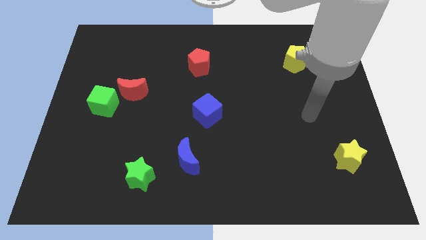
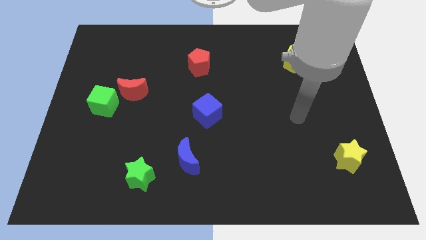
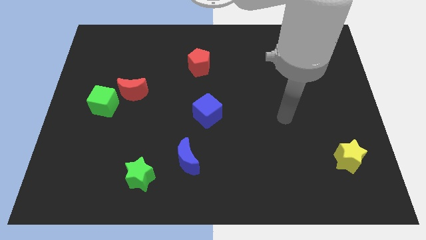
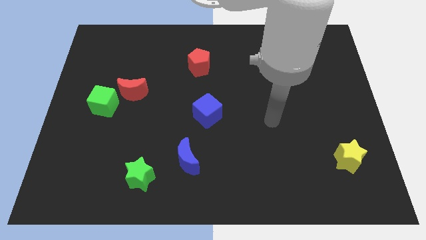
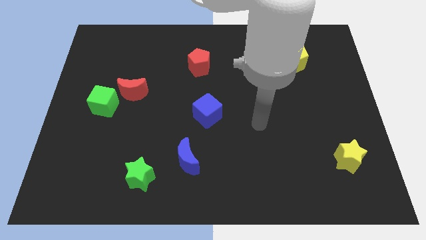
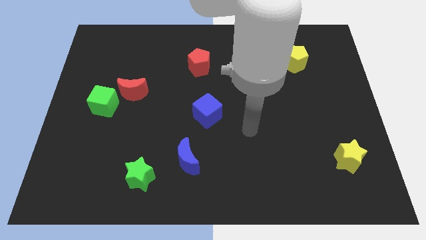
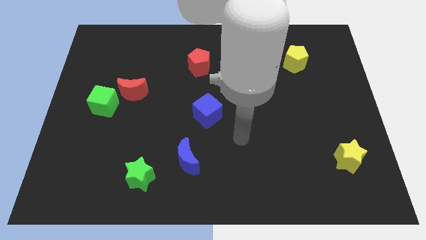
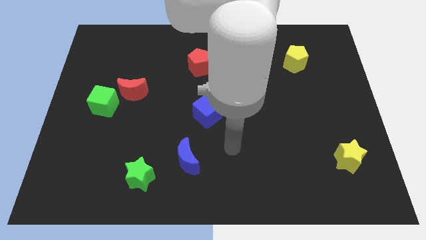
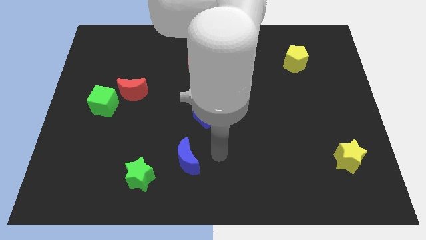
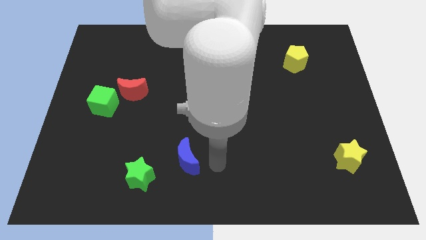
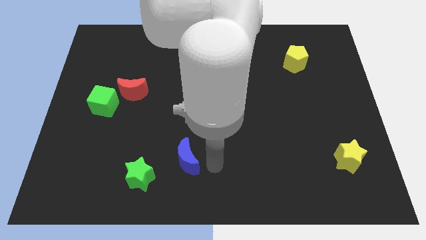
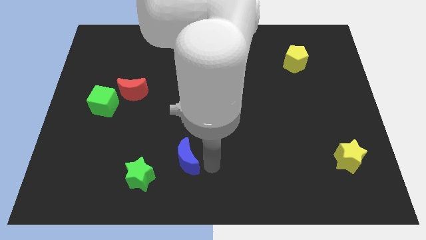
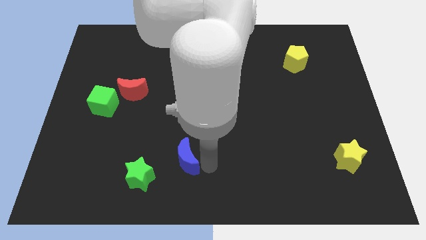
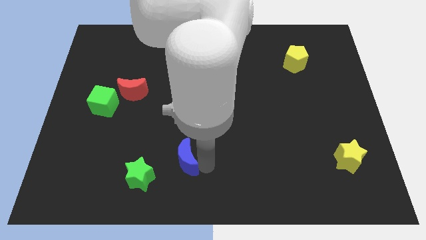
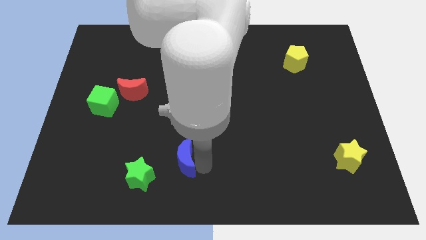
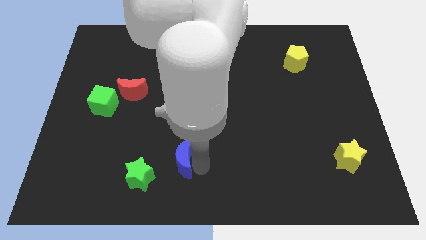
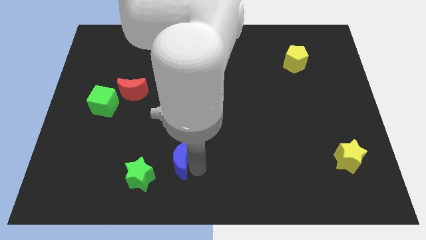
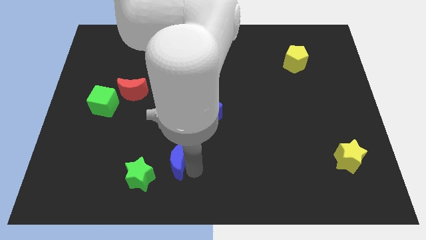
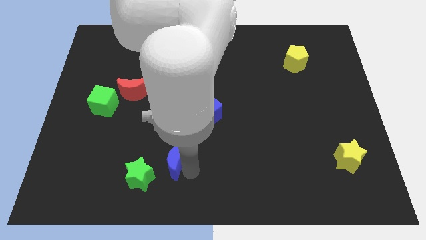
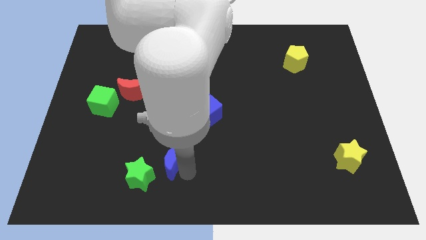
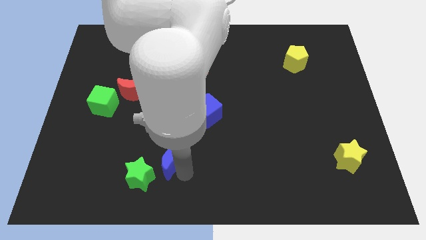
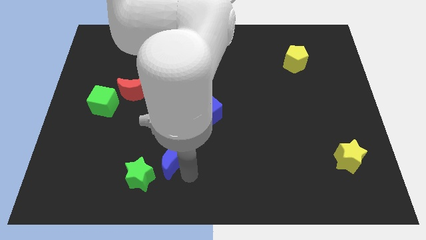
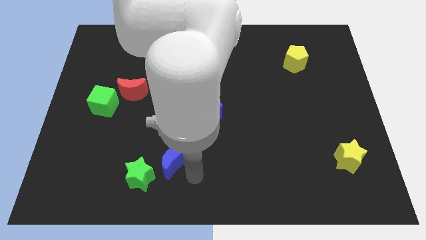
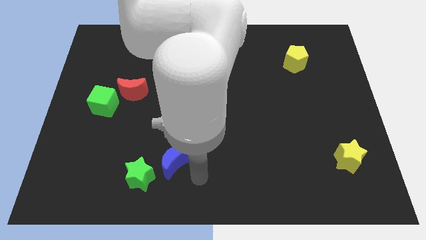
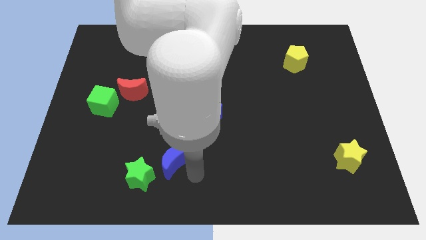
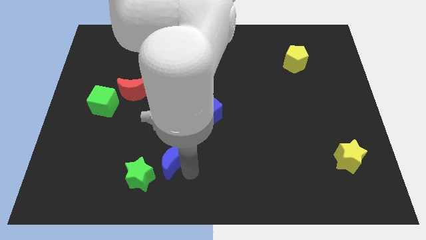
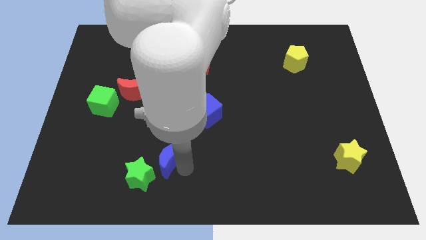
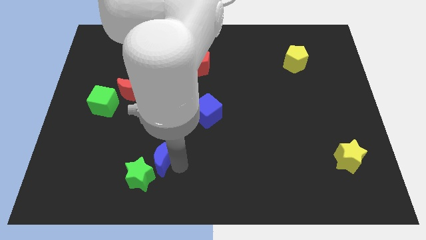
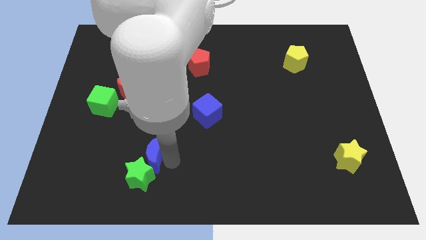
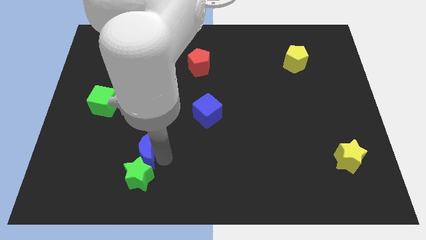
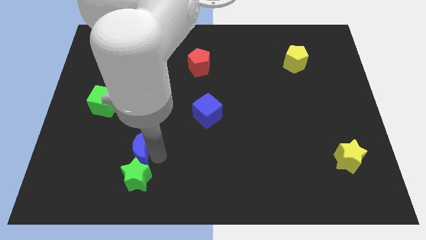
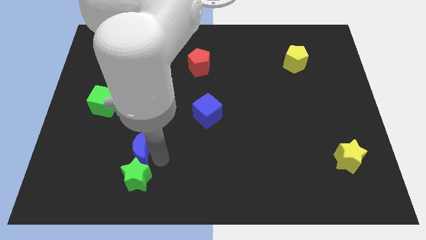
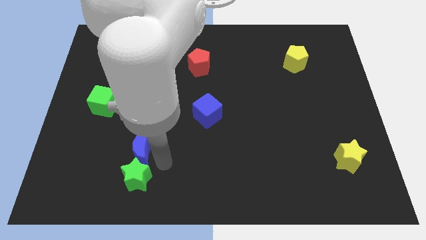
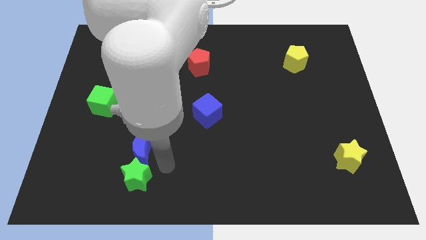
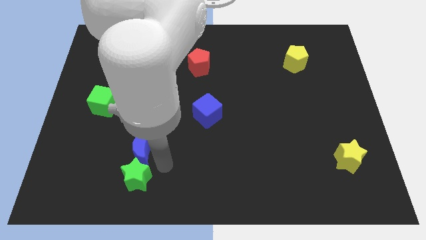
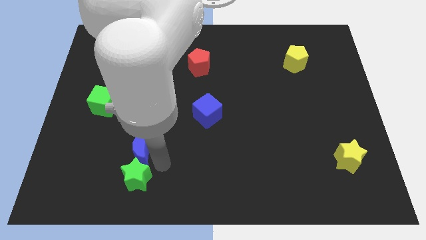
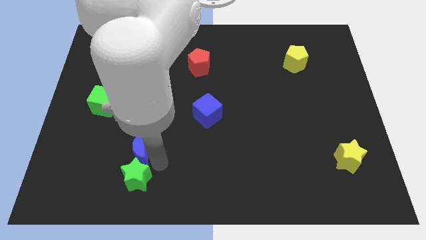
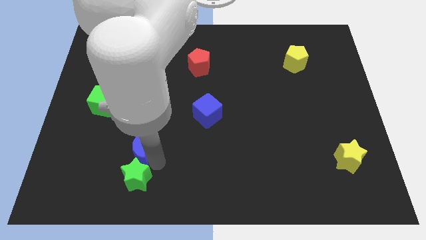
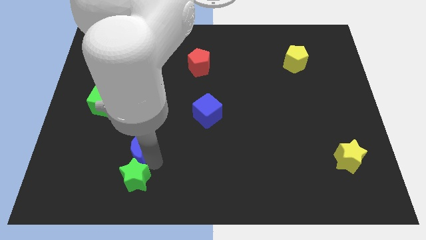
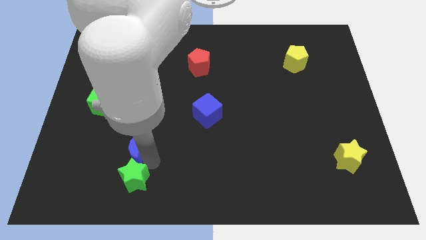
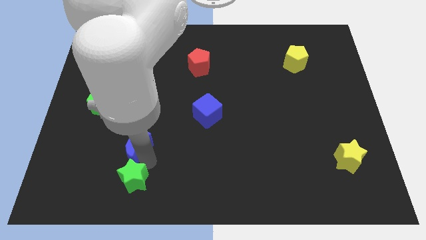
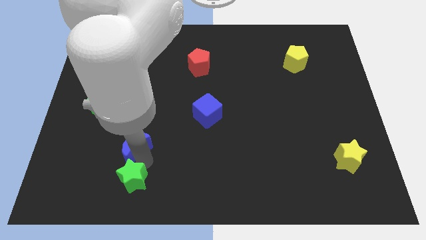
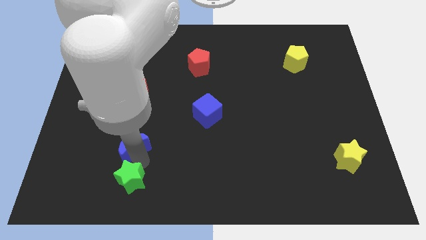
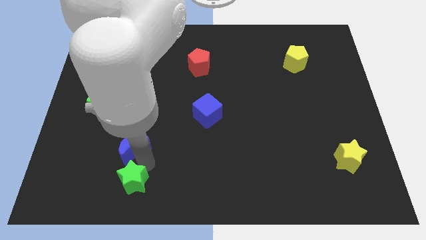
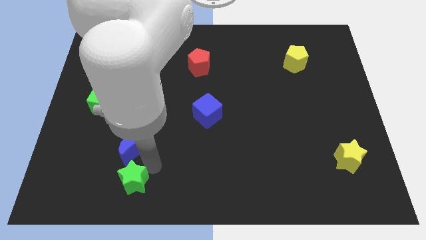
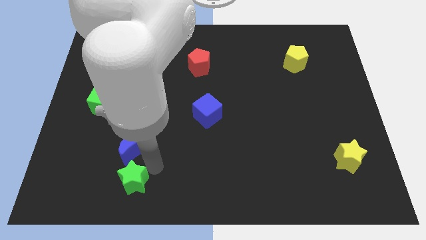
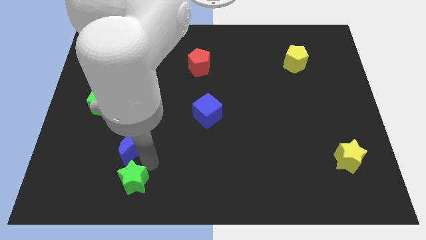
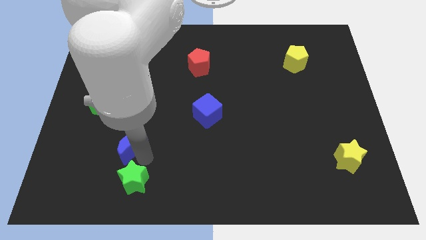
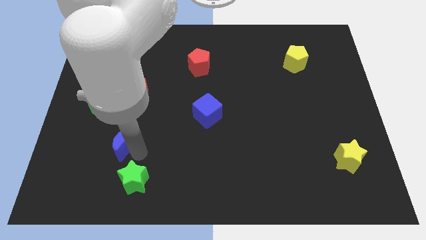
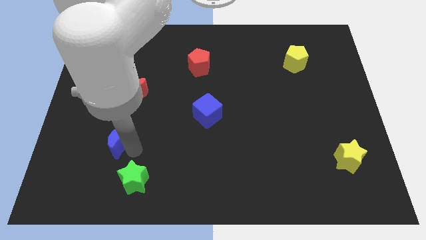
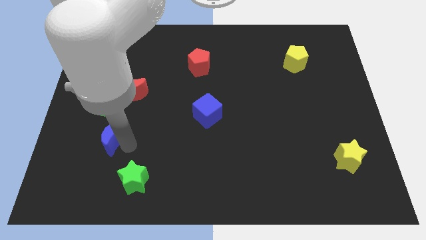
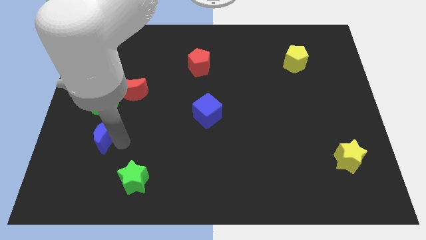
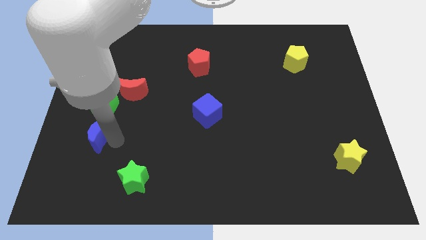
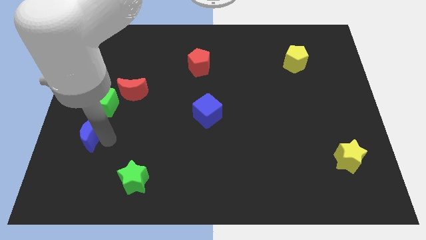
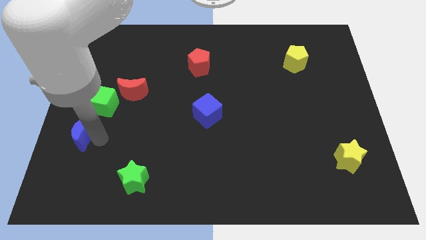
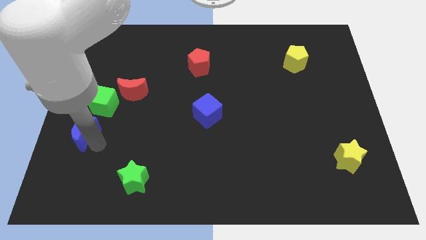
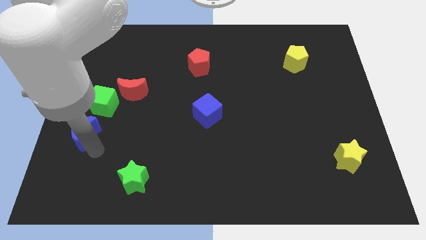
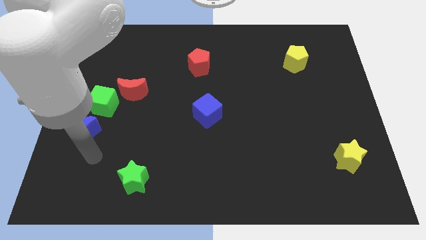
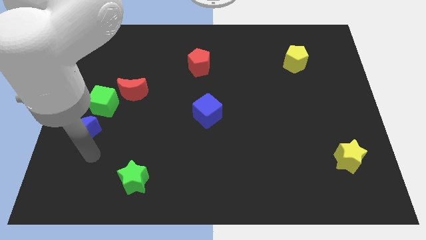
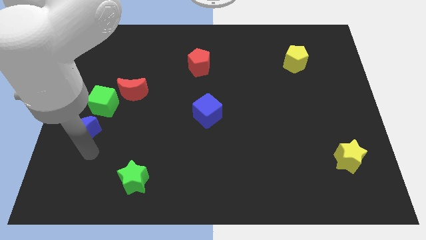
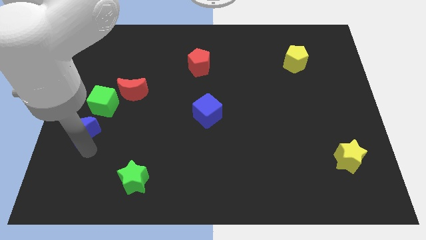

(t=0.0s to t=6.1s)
slide the blue moon to the center left
